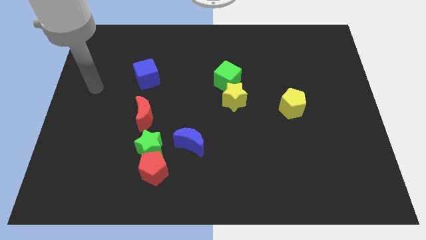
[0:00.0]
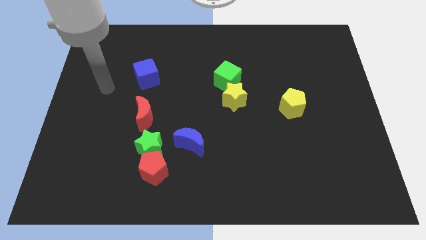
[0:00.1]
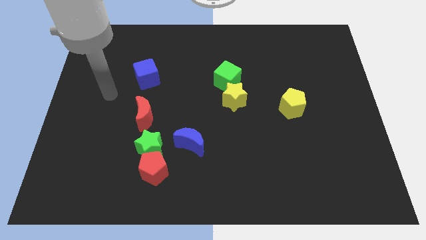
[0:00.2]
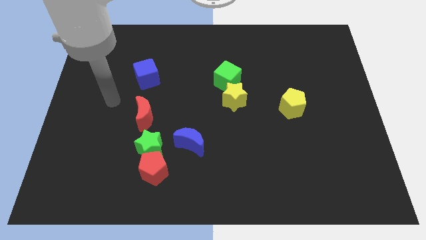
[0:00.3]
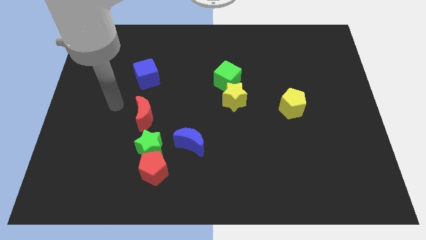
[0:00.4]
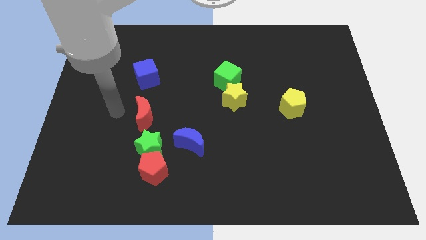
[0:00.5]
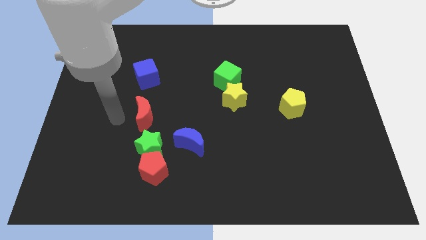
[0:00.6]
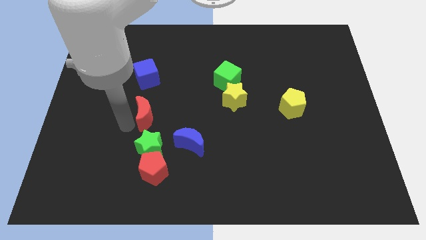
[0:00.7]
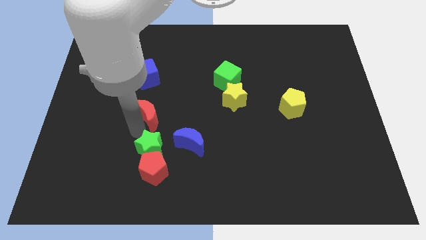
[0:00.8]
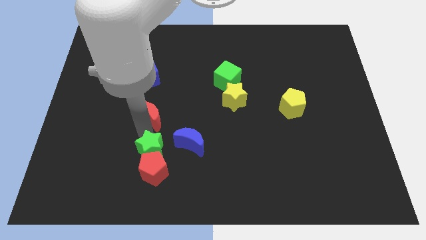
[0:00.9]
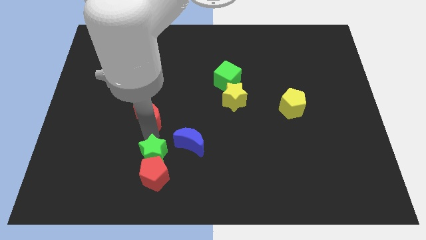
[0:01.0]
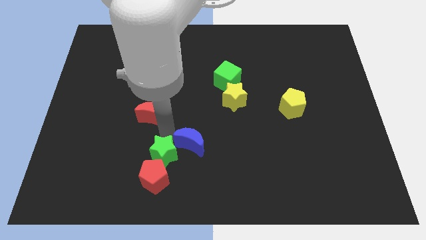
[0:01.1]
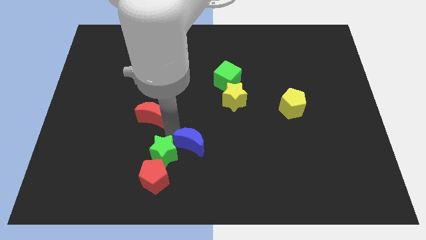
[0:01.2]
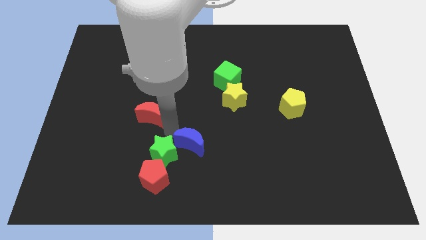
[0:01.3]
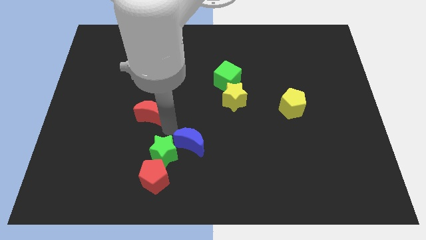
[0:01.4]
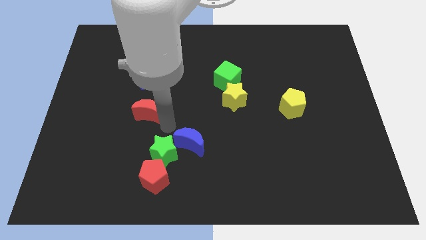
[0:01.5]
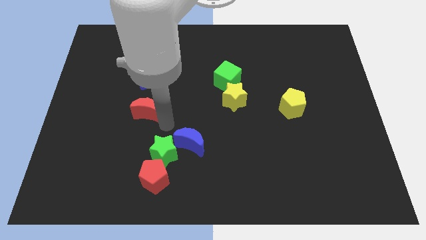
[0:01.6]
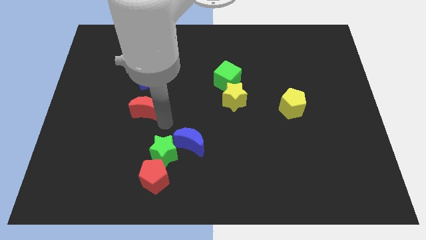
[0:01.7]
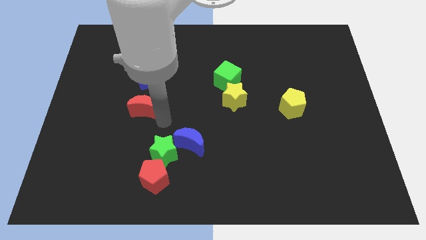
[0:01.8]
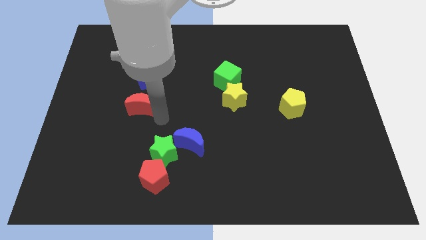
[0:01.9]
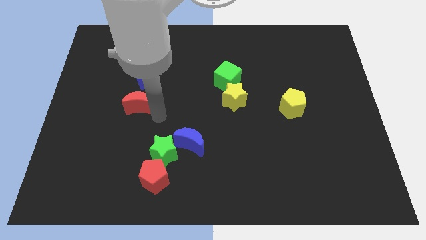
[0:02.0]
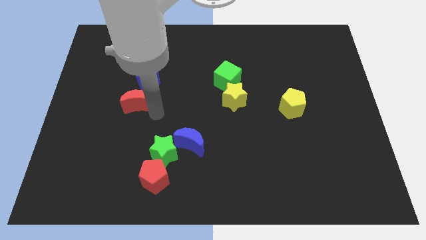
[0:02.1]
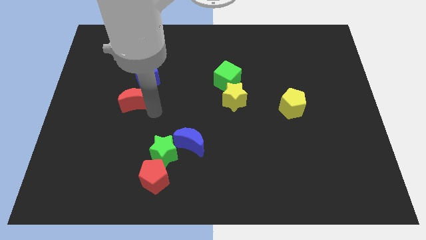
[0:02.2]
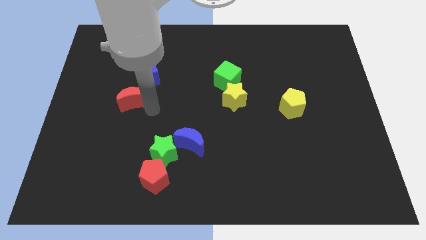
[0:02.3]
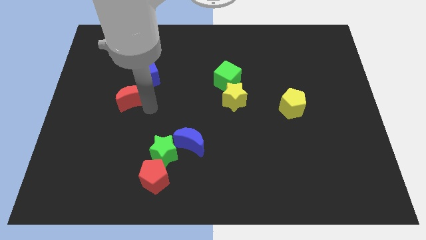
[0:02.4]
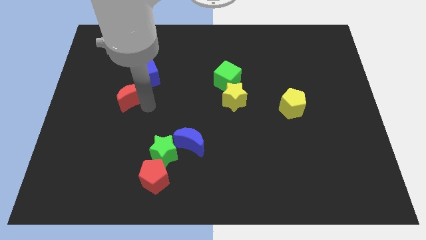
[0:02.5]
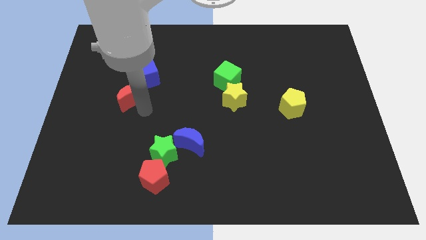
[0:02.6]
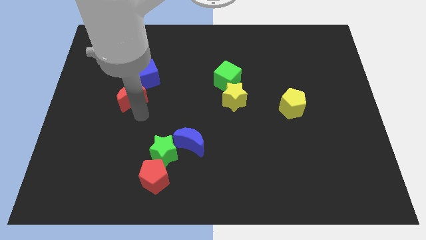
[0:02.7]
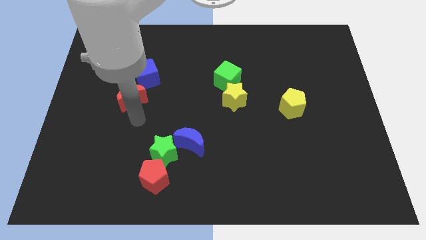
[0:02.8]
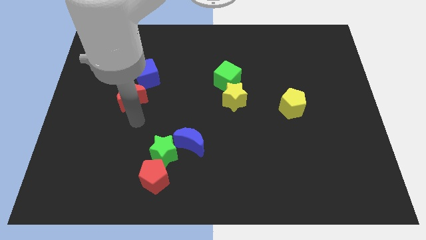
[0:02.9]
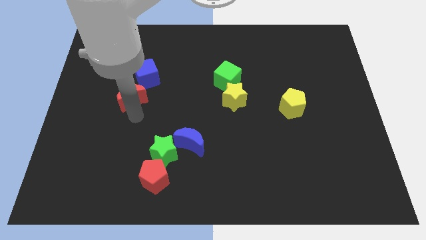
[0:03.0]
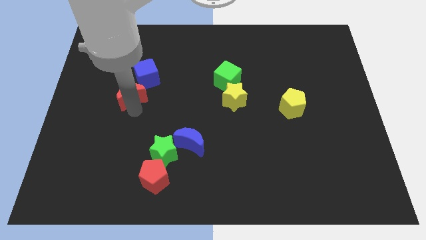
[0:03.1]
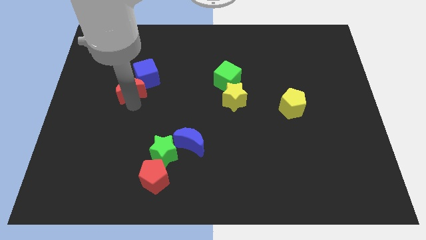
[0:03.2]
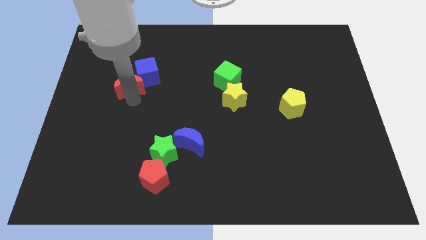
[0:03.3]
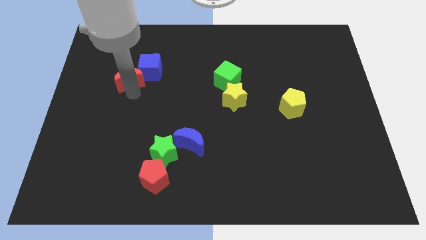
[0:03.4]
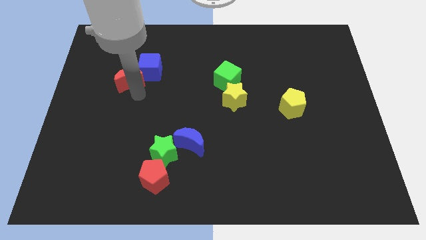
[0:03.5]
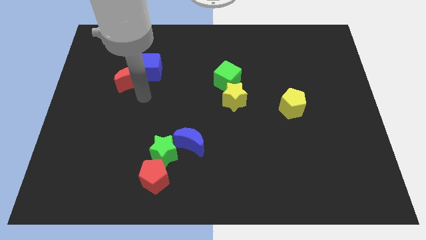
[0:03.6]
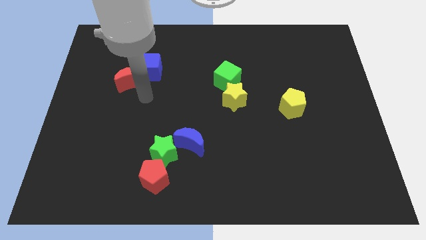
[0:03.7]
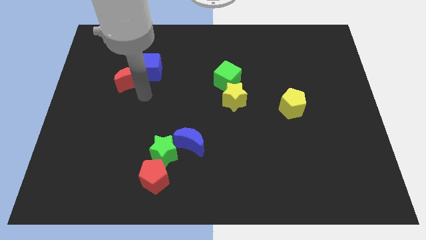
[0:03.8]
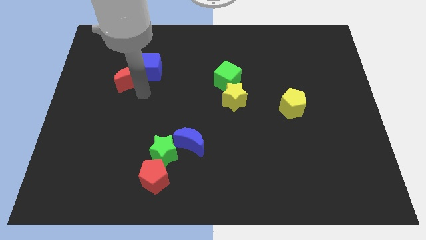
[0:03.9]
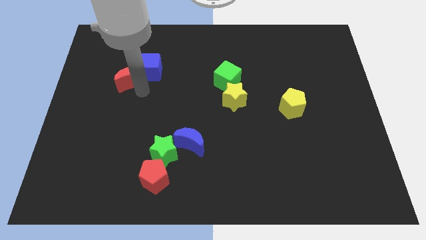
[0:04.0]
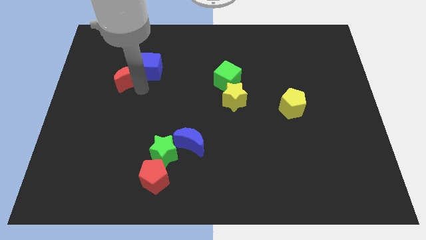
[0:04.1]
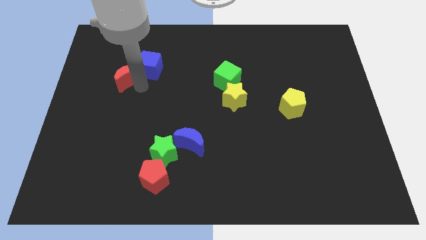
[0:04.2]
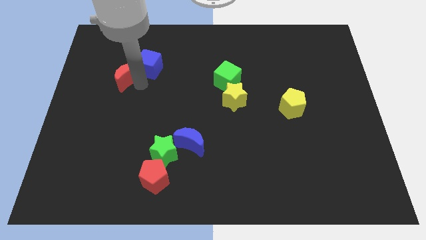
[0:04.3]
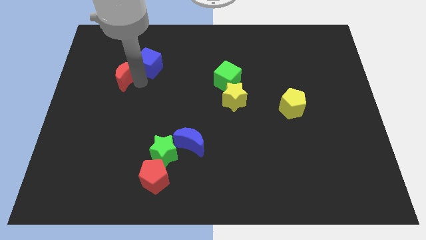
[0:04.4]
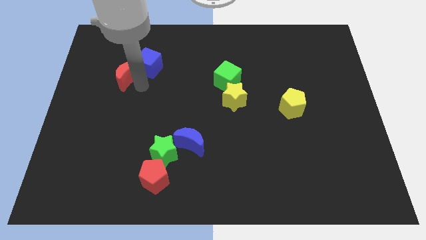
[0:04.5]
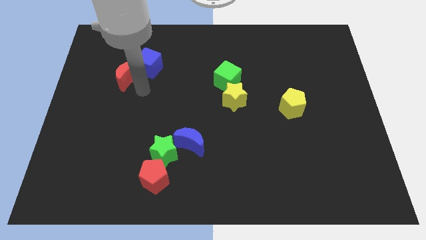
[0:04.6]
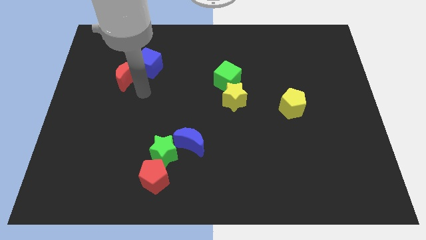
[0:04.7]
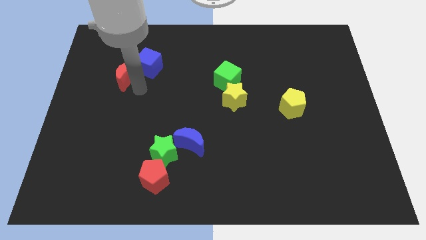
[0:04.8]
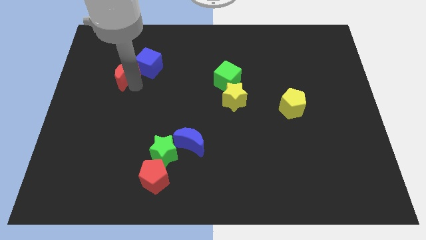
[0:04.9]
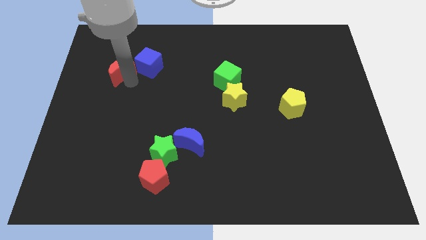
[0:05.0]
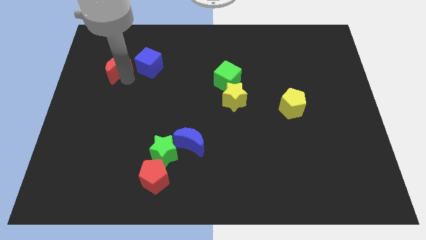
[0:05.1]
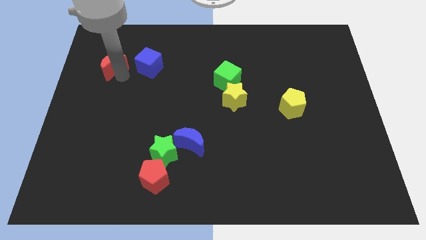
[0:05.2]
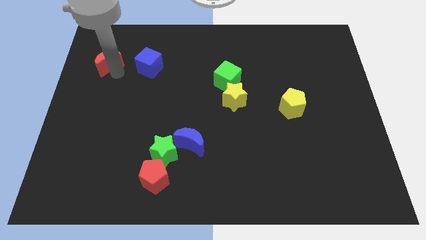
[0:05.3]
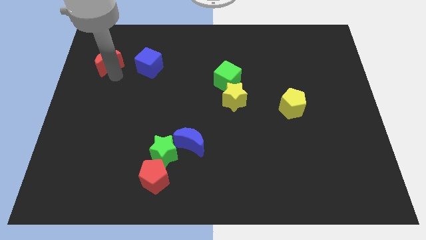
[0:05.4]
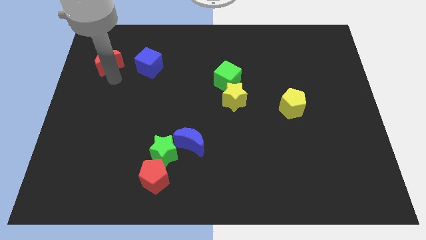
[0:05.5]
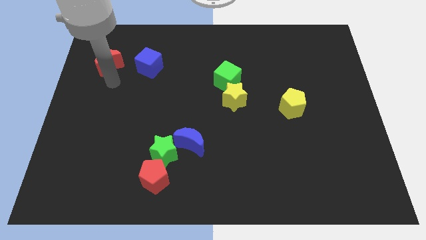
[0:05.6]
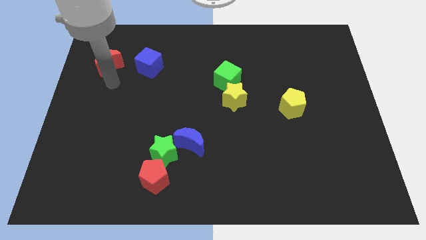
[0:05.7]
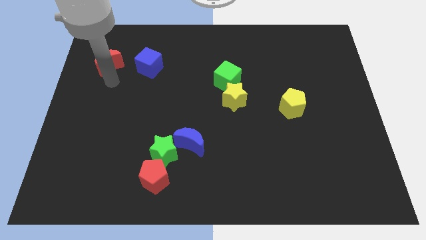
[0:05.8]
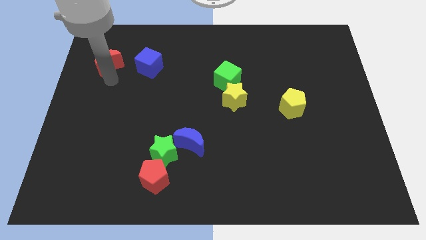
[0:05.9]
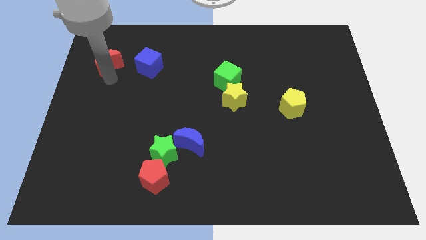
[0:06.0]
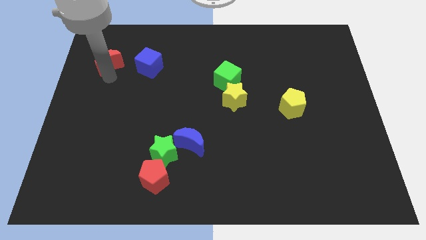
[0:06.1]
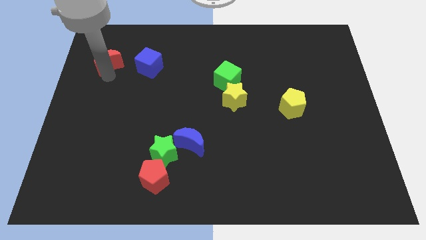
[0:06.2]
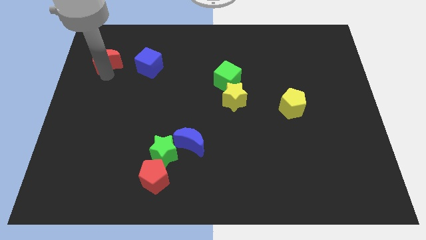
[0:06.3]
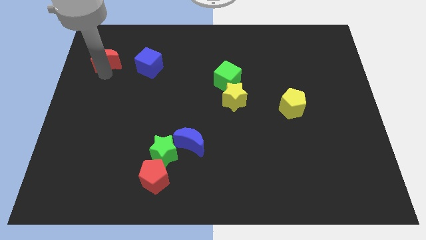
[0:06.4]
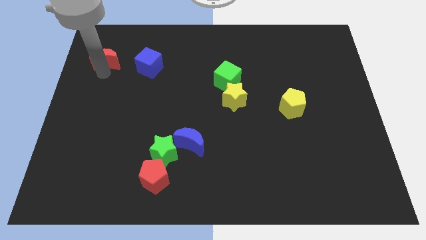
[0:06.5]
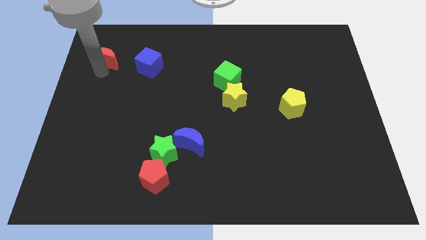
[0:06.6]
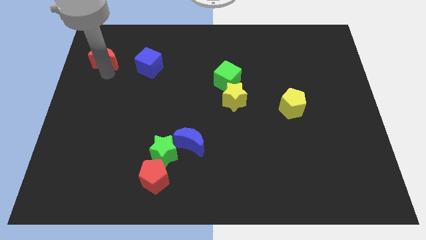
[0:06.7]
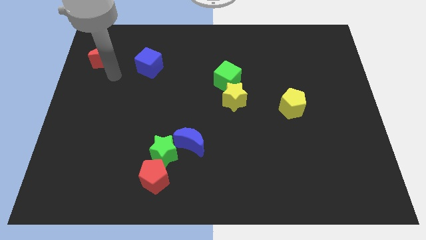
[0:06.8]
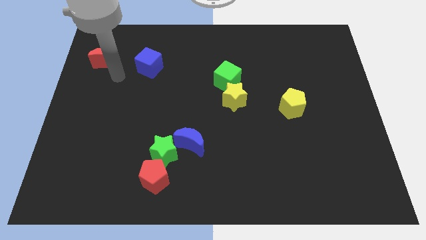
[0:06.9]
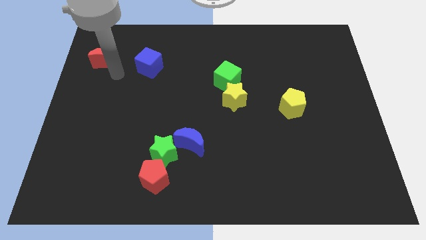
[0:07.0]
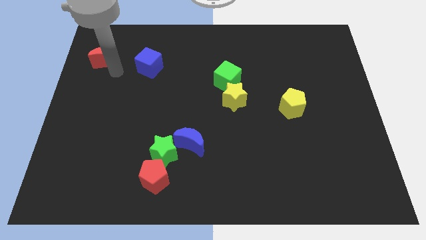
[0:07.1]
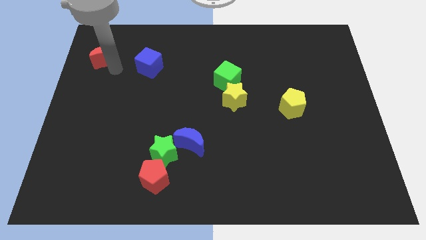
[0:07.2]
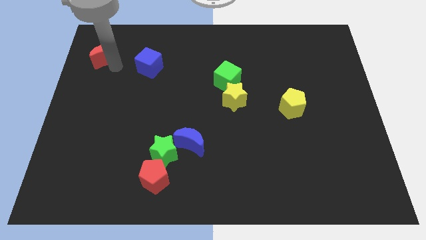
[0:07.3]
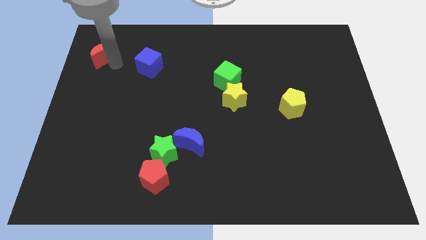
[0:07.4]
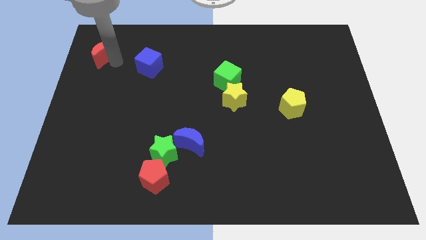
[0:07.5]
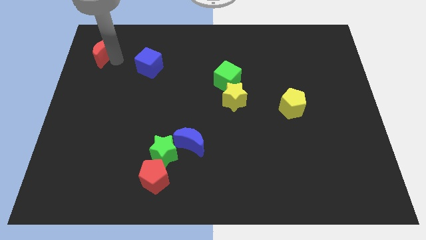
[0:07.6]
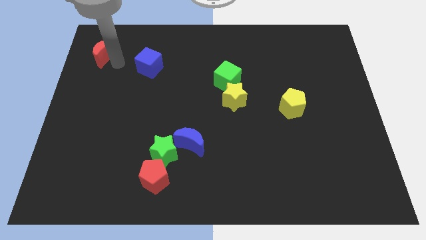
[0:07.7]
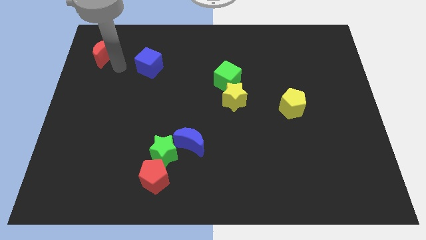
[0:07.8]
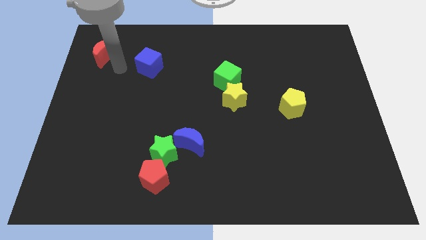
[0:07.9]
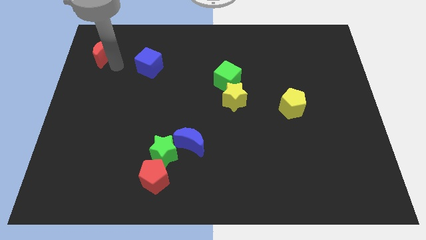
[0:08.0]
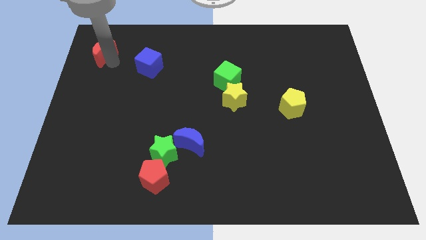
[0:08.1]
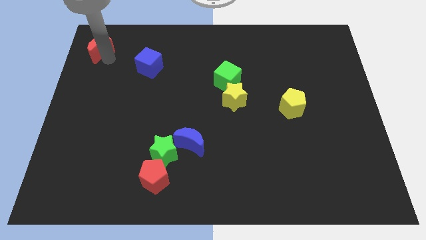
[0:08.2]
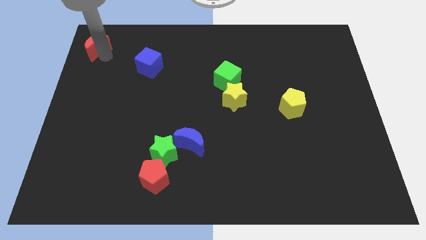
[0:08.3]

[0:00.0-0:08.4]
put the red moon to the top left corner
